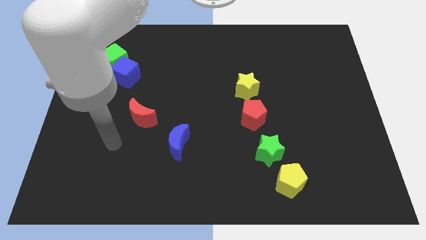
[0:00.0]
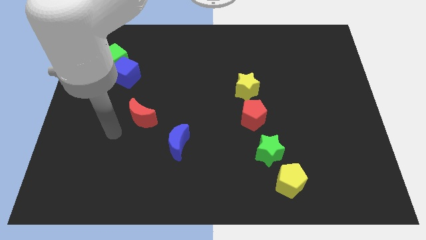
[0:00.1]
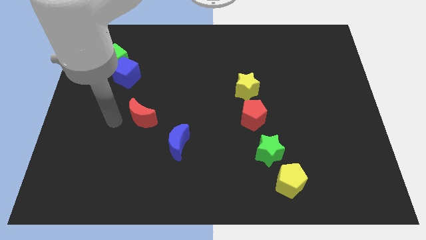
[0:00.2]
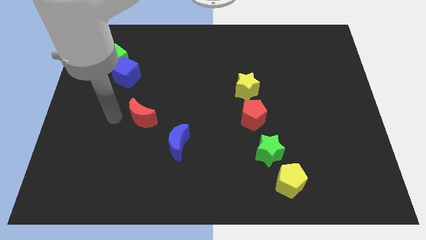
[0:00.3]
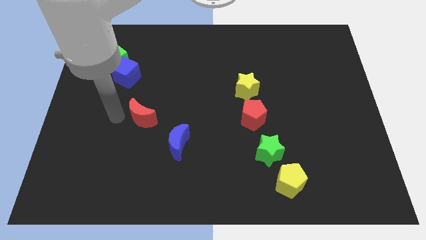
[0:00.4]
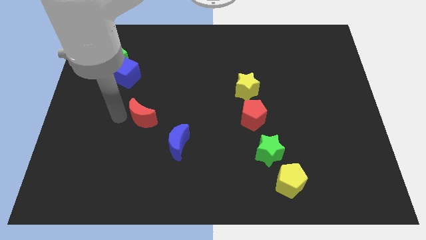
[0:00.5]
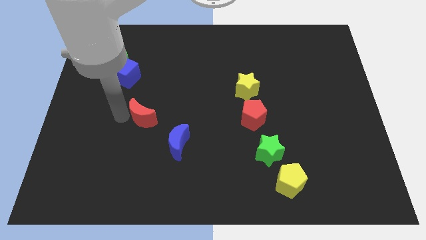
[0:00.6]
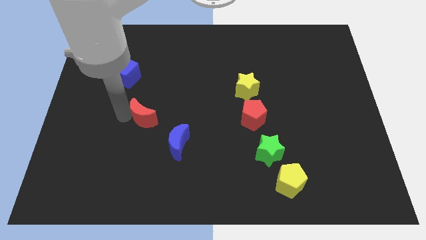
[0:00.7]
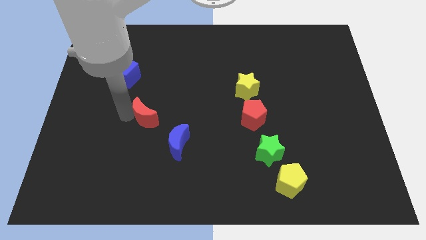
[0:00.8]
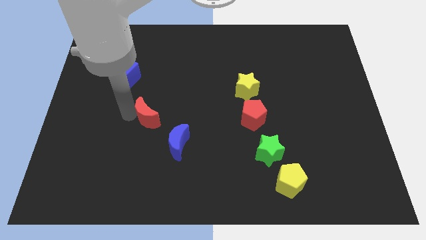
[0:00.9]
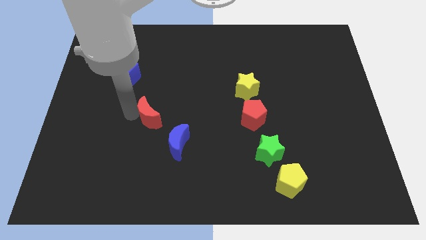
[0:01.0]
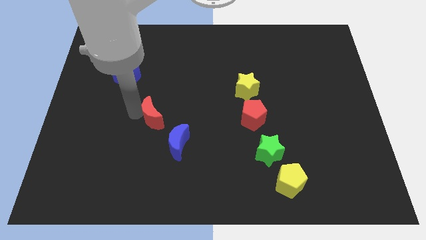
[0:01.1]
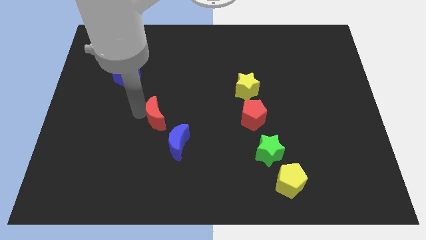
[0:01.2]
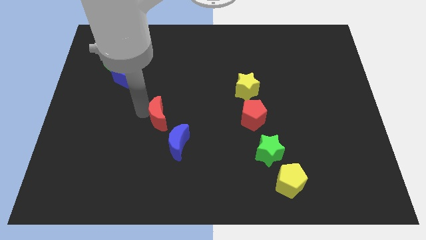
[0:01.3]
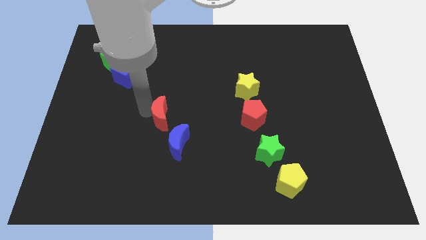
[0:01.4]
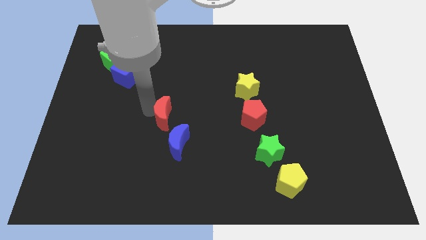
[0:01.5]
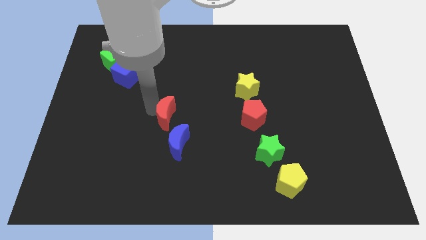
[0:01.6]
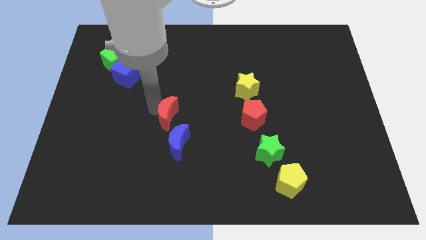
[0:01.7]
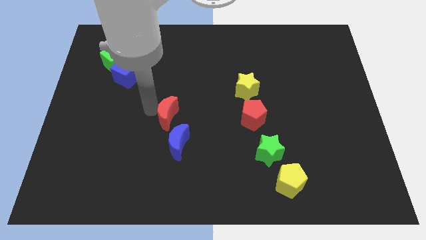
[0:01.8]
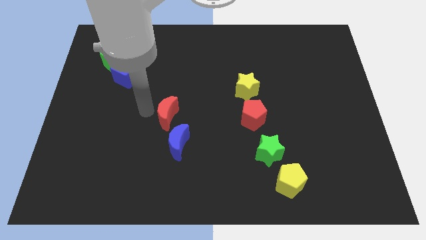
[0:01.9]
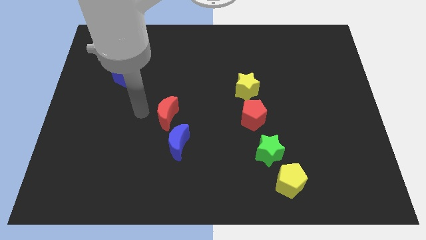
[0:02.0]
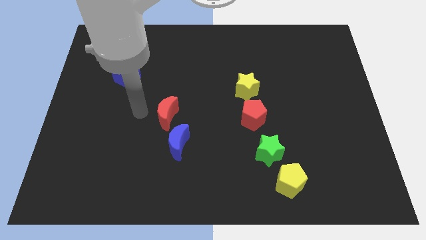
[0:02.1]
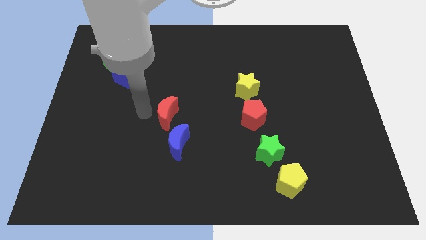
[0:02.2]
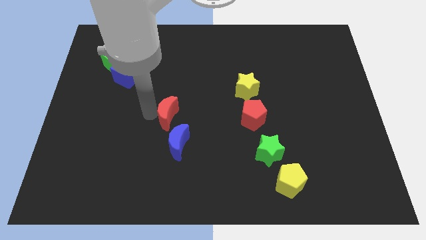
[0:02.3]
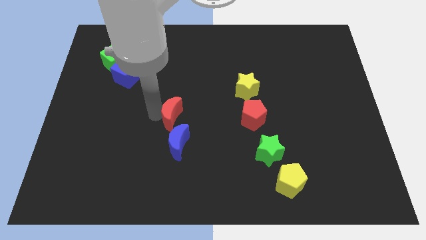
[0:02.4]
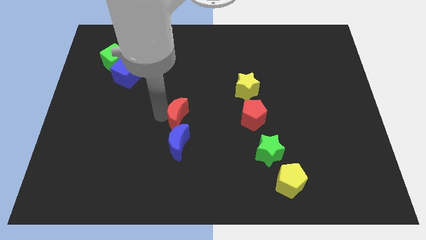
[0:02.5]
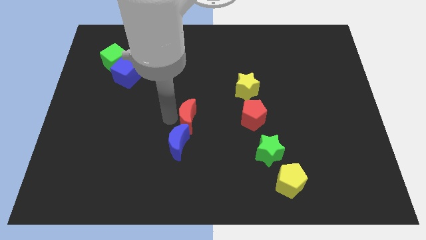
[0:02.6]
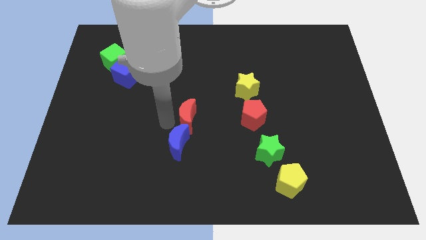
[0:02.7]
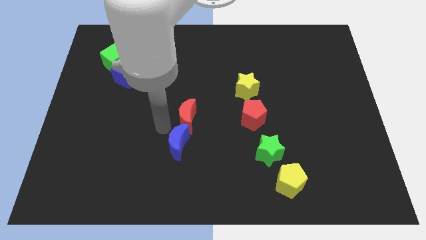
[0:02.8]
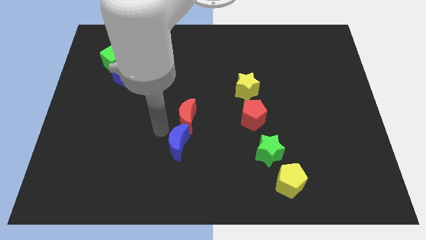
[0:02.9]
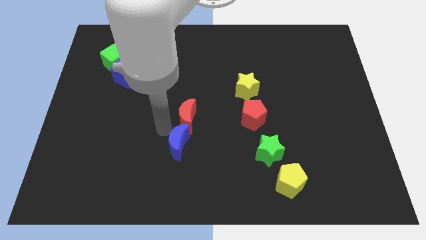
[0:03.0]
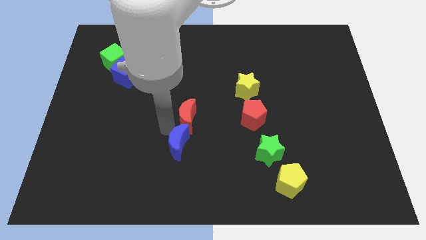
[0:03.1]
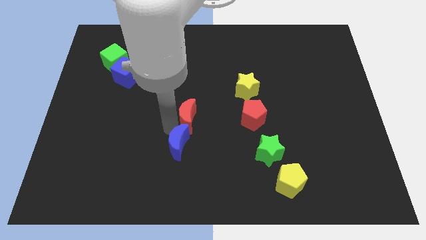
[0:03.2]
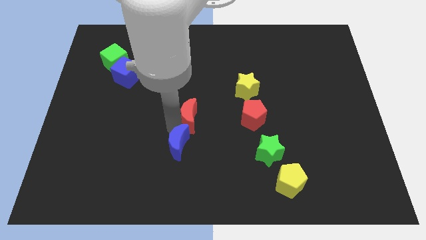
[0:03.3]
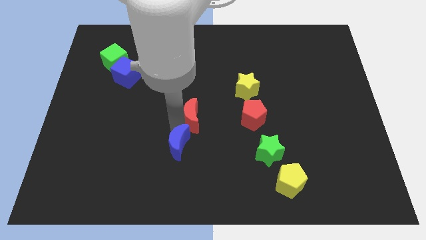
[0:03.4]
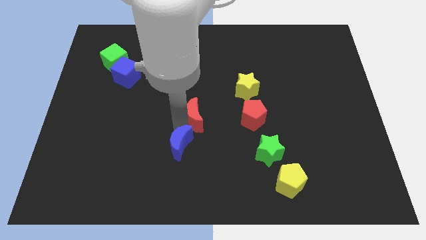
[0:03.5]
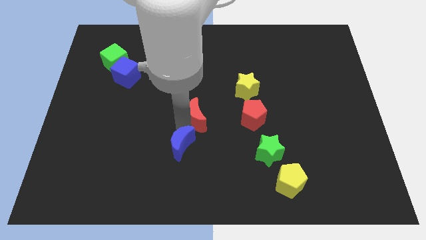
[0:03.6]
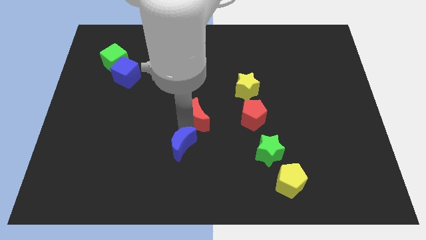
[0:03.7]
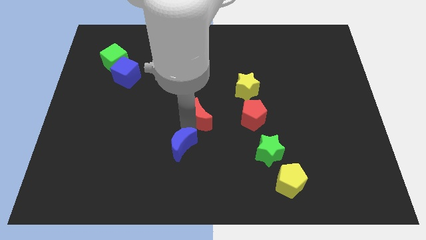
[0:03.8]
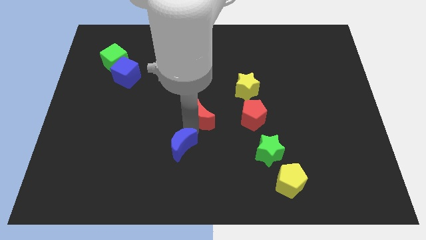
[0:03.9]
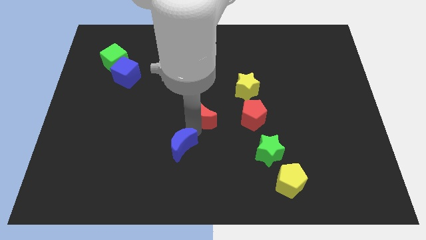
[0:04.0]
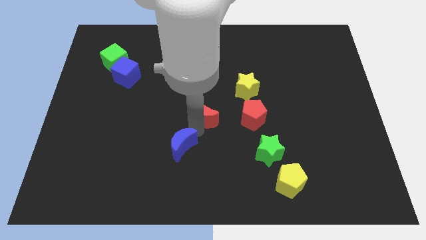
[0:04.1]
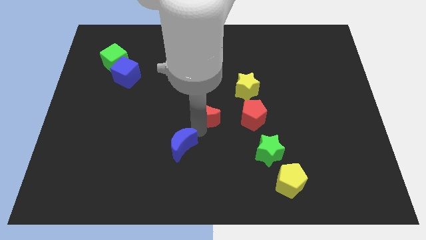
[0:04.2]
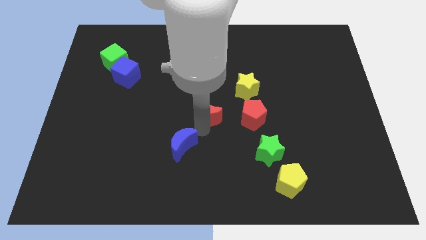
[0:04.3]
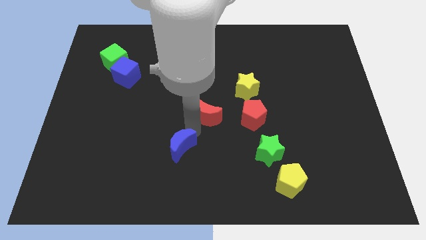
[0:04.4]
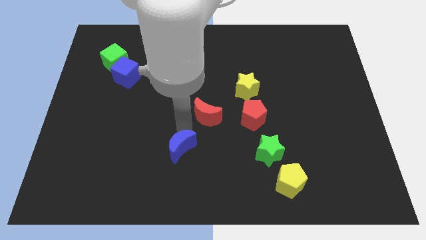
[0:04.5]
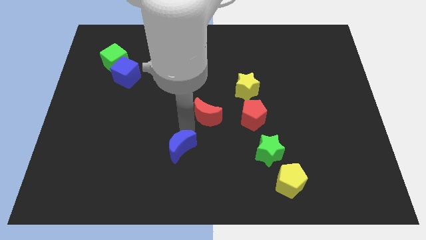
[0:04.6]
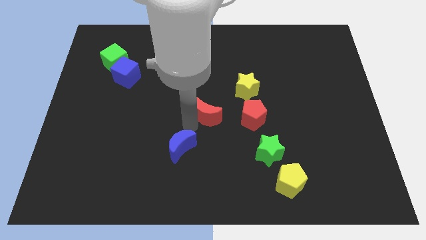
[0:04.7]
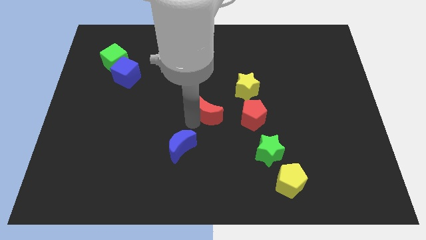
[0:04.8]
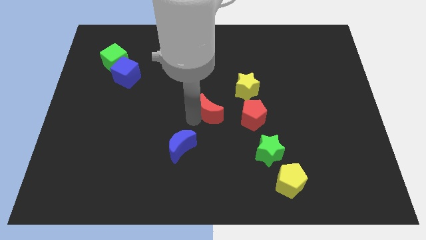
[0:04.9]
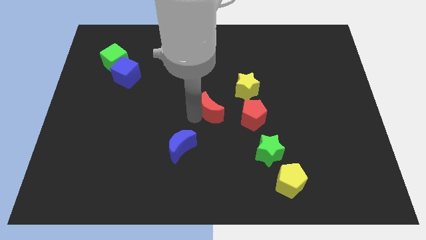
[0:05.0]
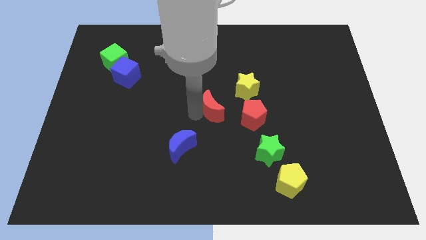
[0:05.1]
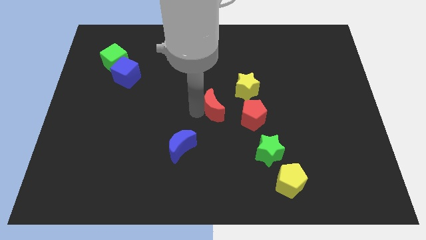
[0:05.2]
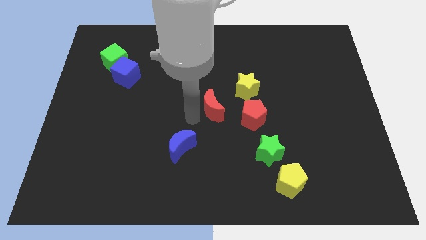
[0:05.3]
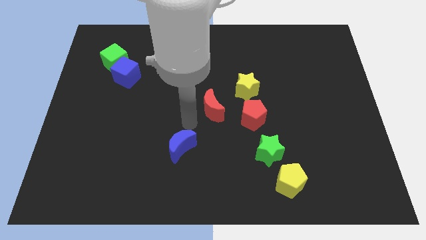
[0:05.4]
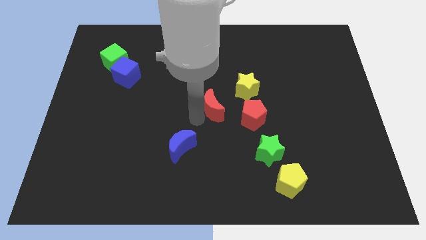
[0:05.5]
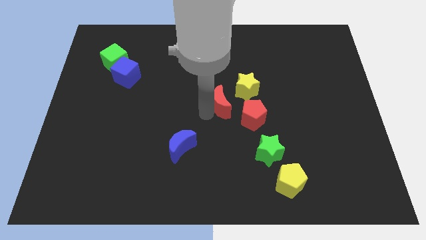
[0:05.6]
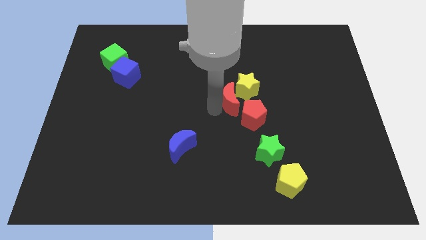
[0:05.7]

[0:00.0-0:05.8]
move the red moon towards the yellow star

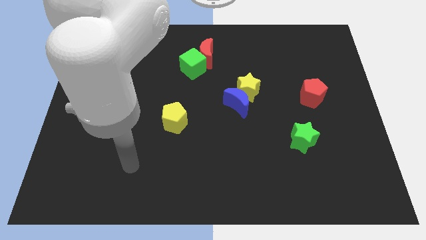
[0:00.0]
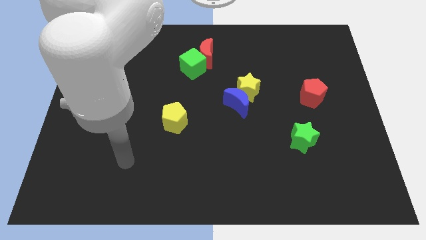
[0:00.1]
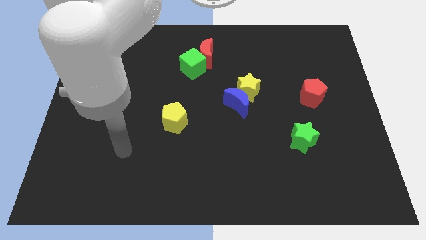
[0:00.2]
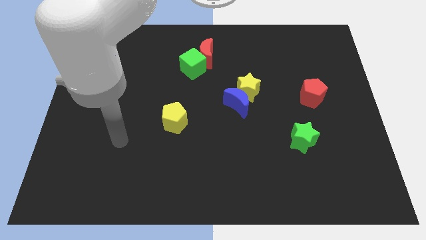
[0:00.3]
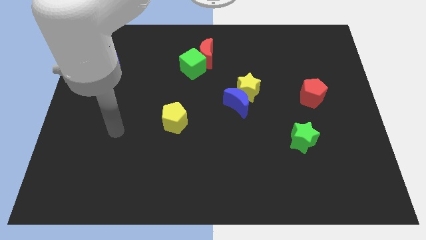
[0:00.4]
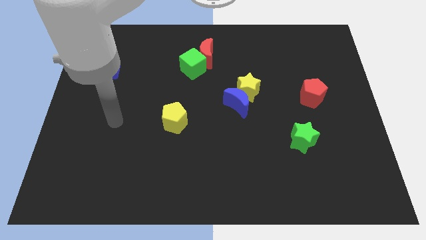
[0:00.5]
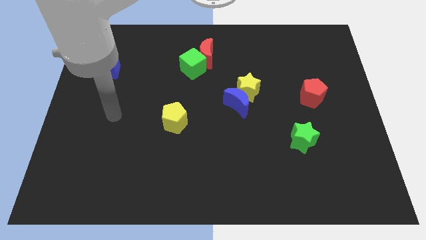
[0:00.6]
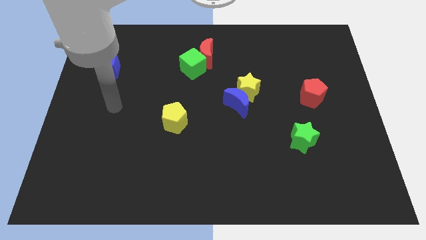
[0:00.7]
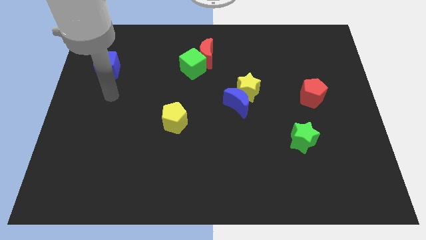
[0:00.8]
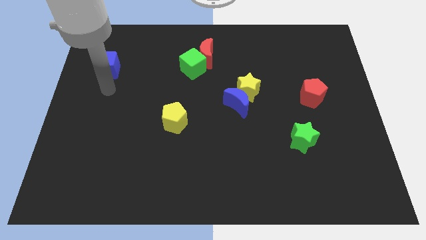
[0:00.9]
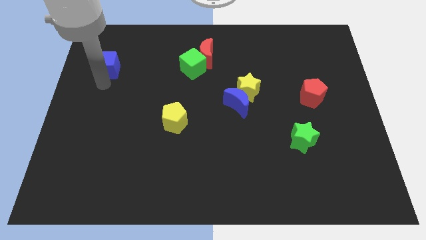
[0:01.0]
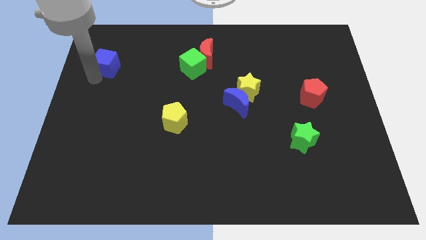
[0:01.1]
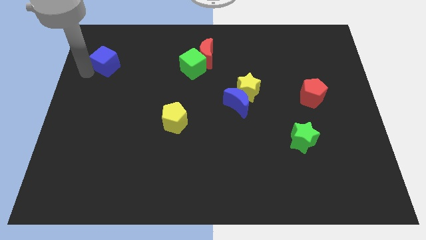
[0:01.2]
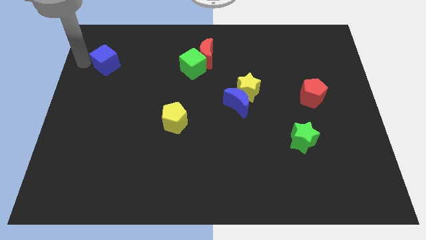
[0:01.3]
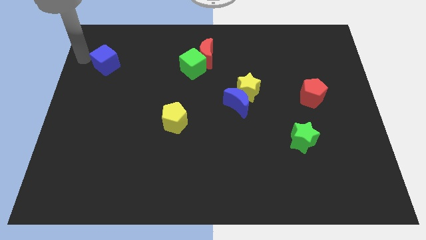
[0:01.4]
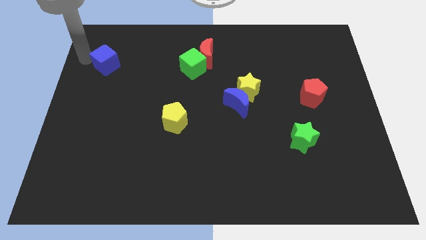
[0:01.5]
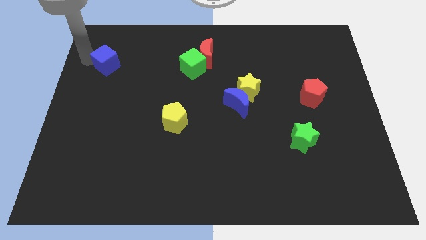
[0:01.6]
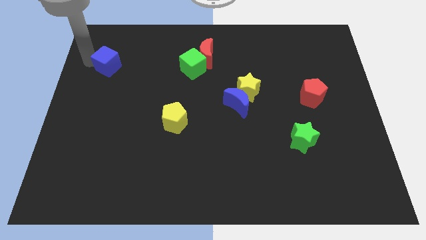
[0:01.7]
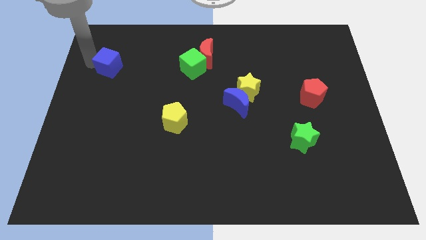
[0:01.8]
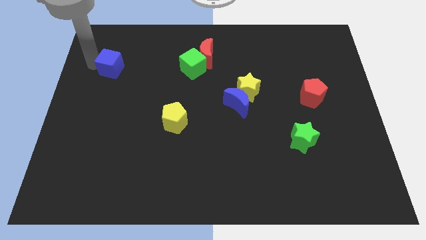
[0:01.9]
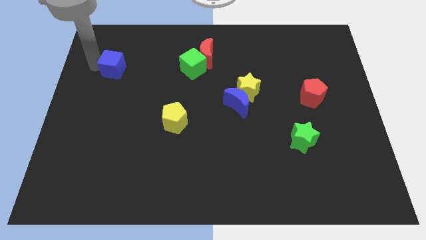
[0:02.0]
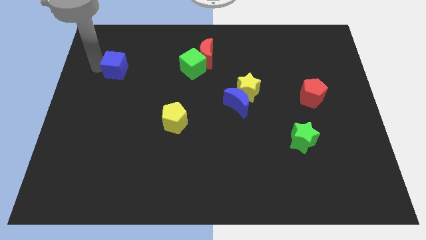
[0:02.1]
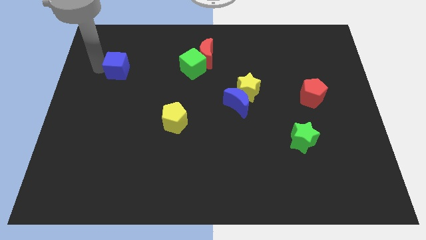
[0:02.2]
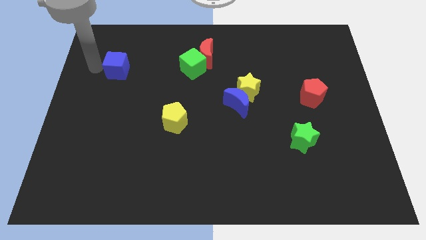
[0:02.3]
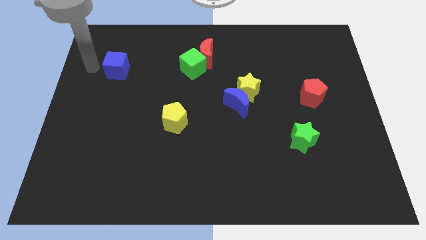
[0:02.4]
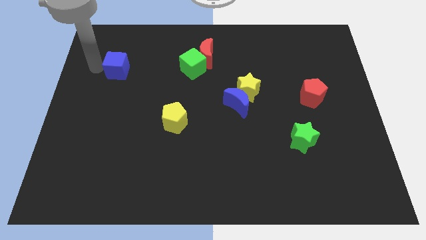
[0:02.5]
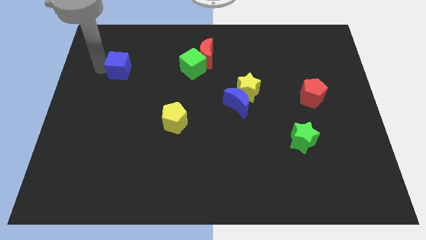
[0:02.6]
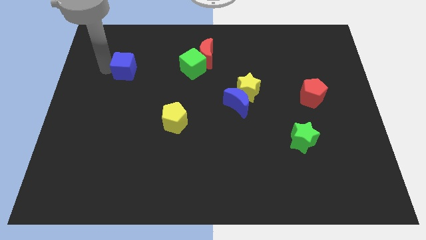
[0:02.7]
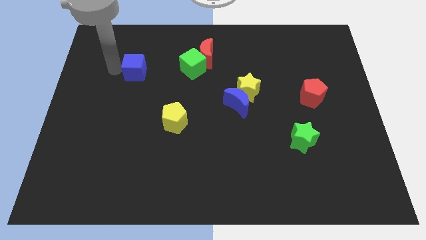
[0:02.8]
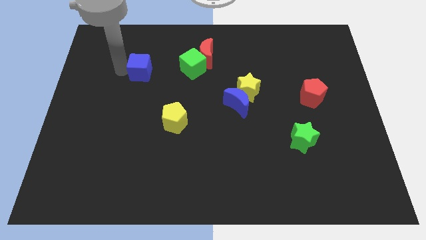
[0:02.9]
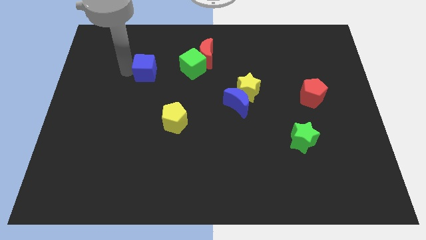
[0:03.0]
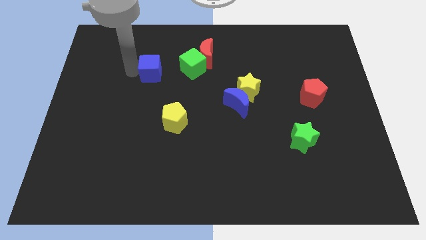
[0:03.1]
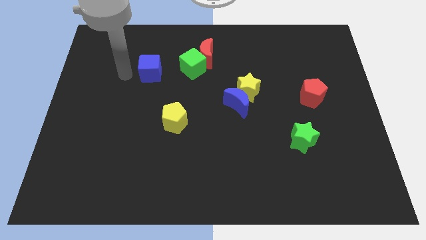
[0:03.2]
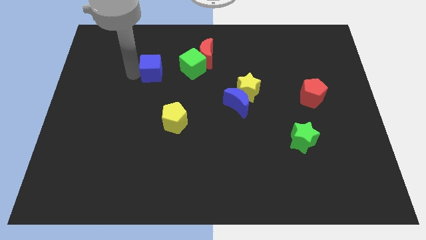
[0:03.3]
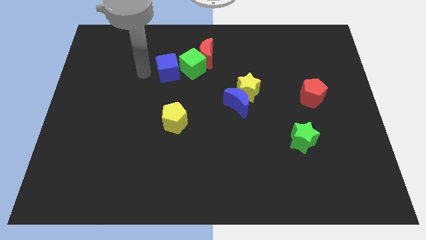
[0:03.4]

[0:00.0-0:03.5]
push the blue cube to the green cube
